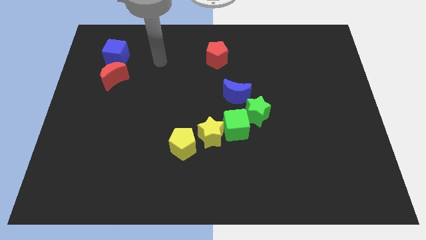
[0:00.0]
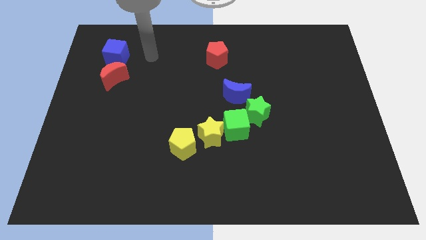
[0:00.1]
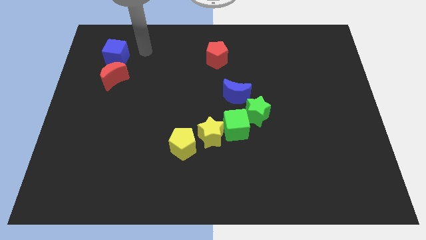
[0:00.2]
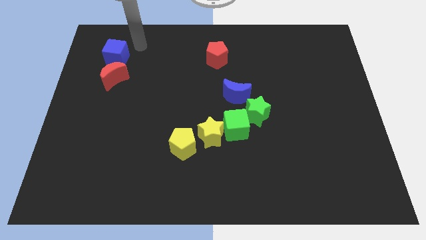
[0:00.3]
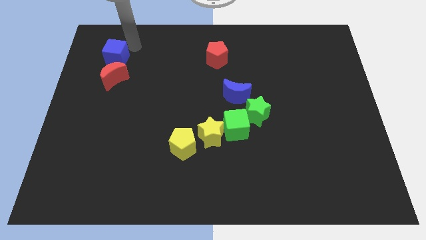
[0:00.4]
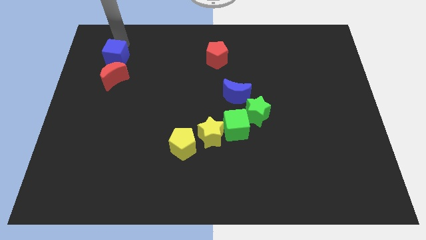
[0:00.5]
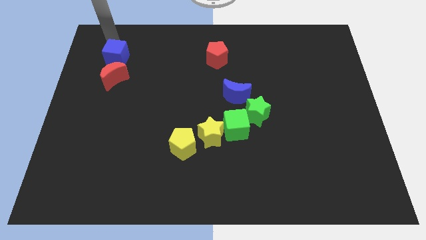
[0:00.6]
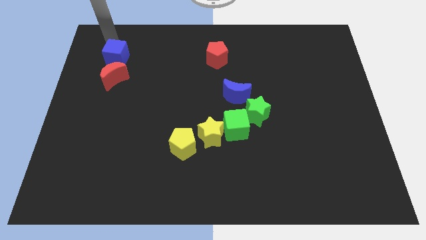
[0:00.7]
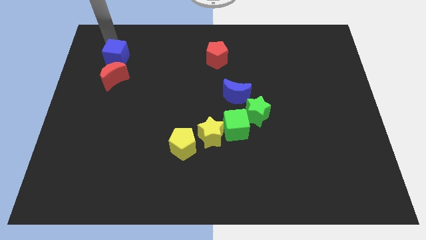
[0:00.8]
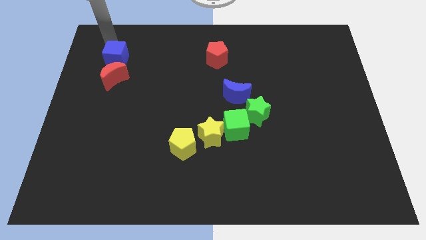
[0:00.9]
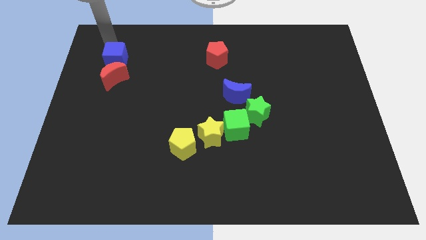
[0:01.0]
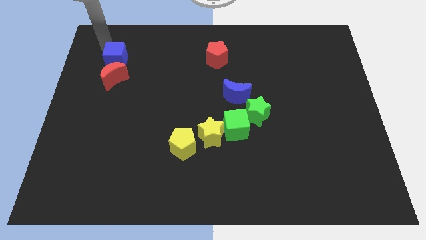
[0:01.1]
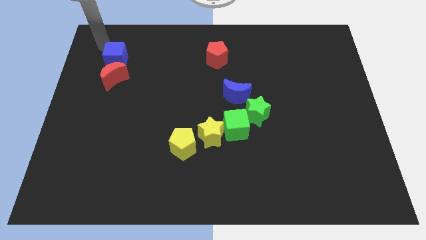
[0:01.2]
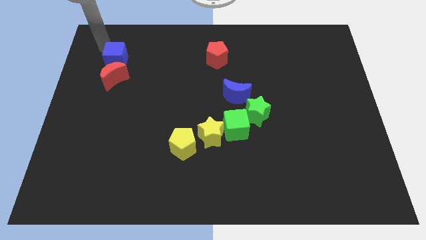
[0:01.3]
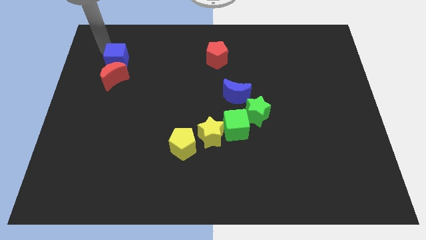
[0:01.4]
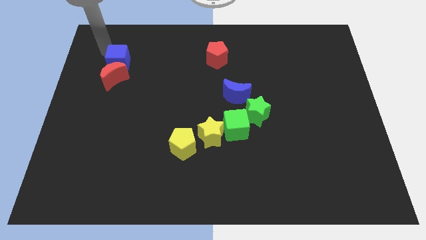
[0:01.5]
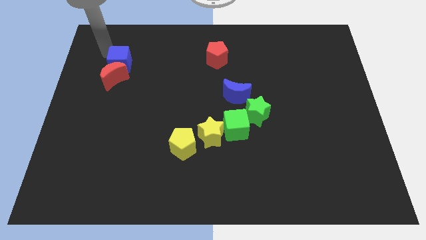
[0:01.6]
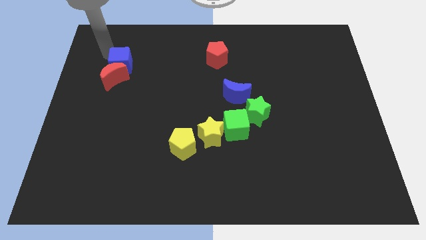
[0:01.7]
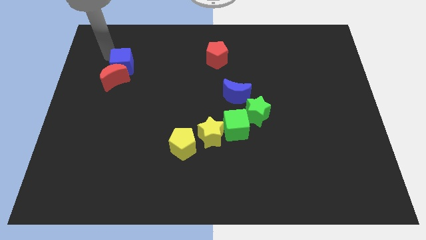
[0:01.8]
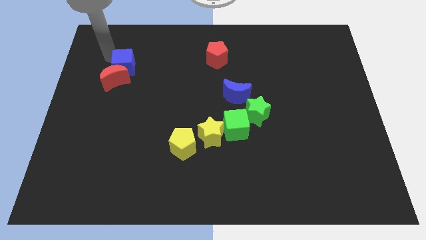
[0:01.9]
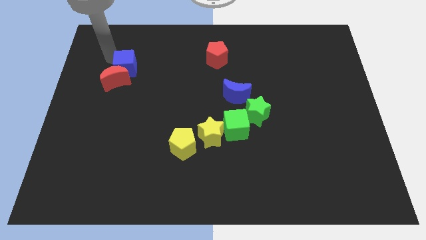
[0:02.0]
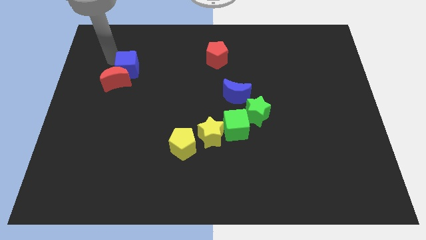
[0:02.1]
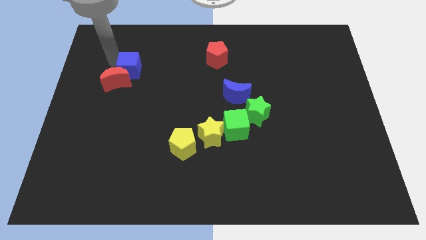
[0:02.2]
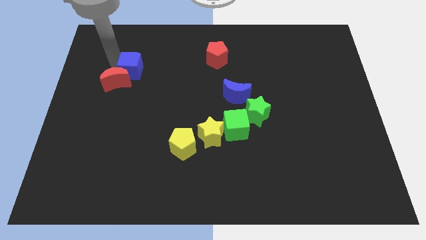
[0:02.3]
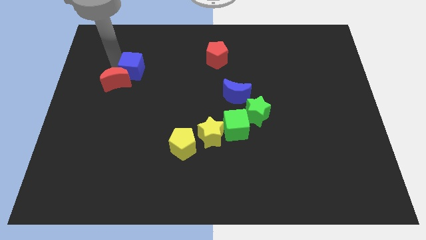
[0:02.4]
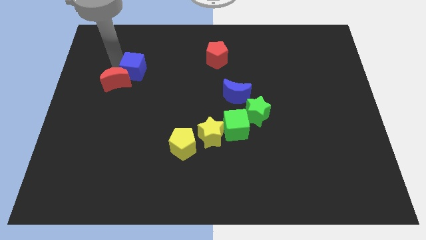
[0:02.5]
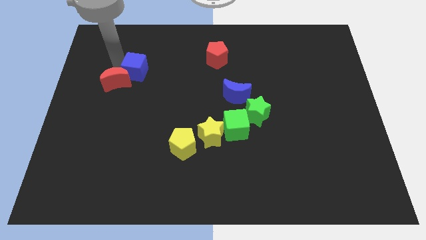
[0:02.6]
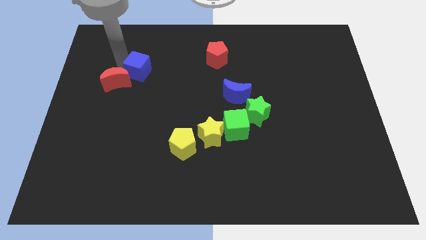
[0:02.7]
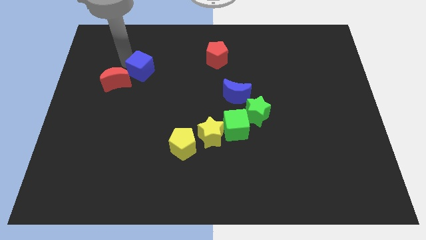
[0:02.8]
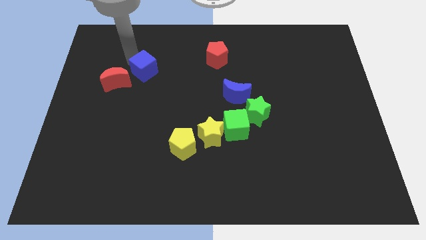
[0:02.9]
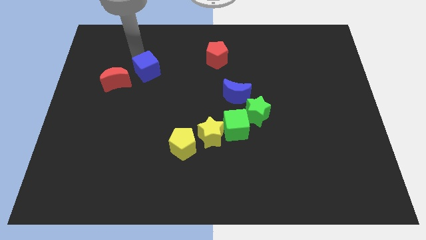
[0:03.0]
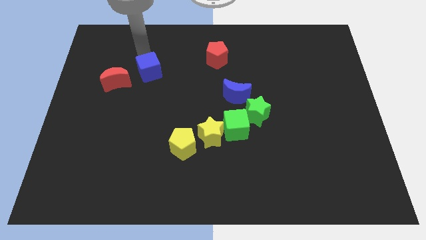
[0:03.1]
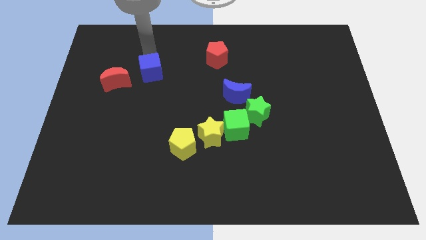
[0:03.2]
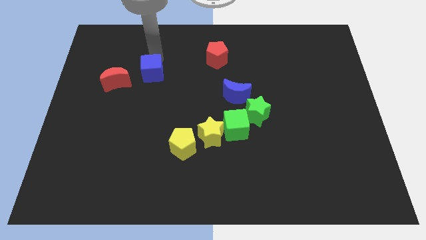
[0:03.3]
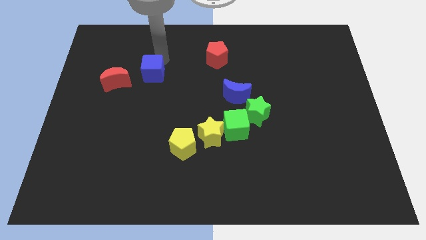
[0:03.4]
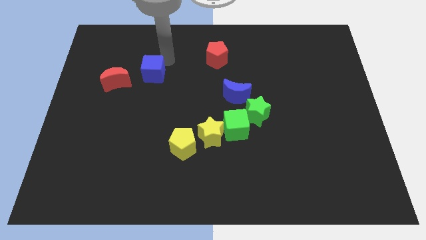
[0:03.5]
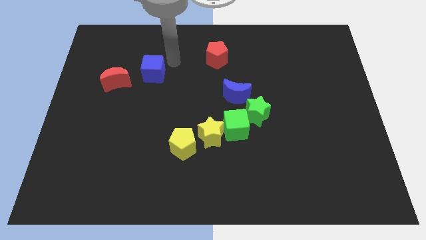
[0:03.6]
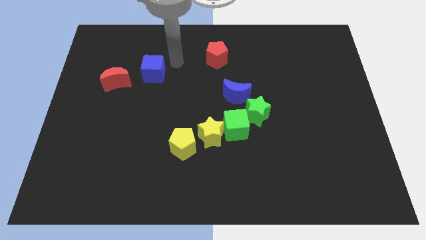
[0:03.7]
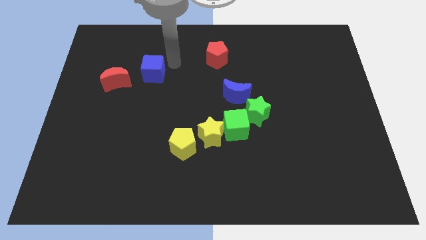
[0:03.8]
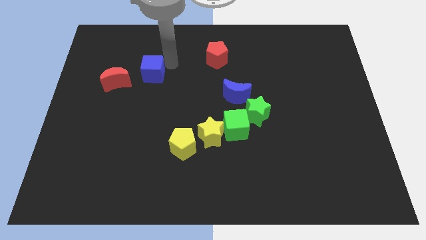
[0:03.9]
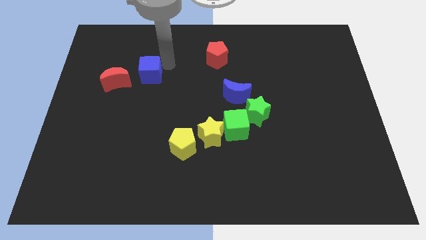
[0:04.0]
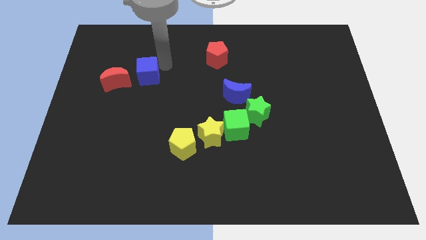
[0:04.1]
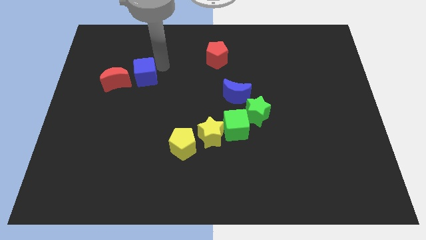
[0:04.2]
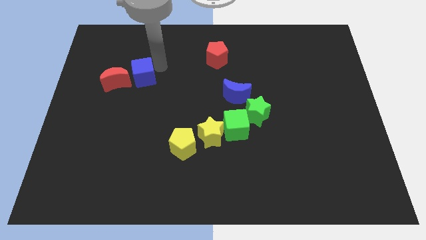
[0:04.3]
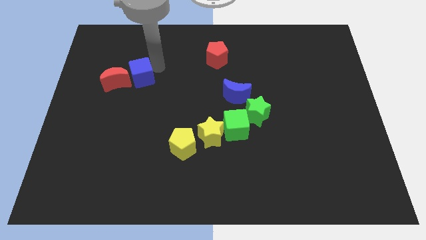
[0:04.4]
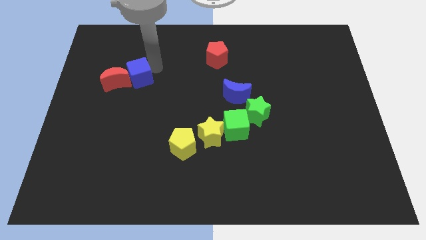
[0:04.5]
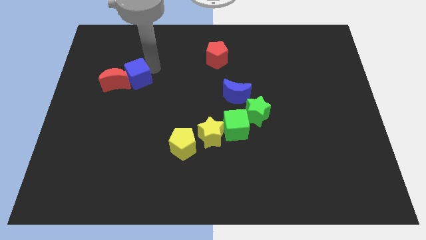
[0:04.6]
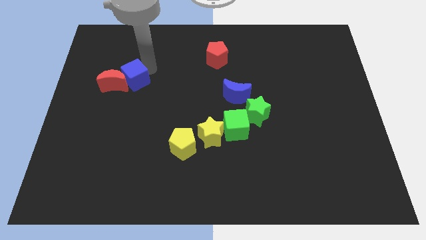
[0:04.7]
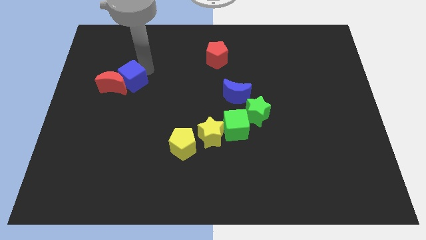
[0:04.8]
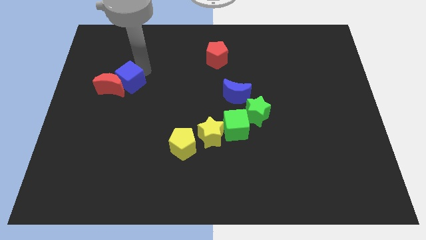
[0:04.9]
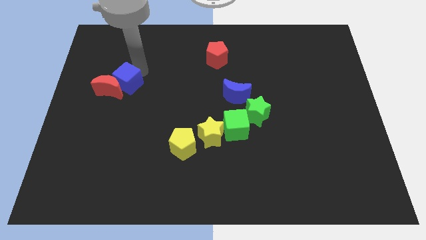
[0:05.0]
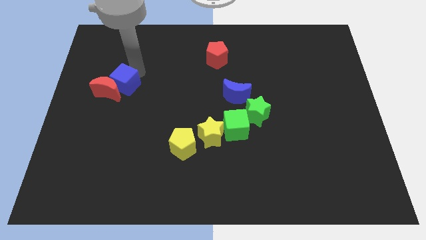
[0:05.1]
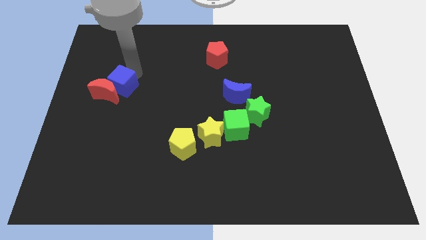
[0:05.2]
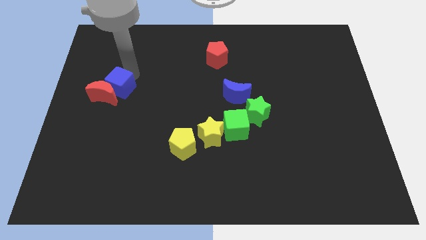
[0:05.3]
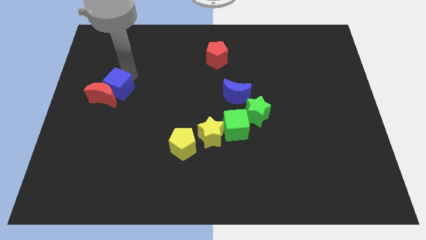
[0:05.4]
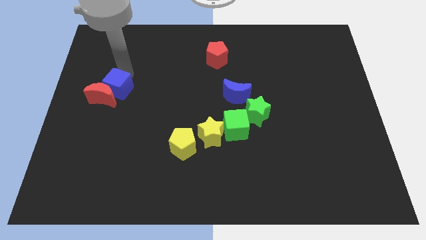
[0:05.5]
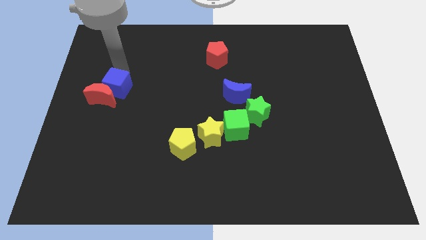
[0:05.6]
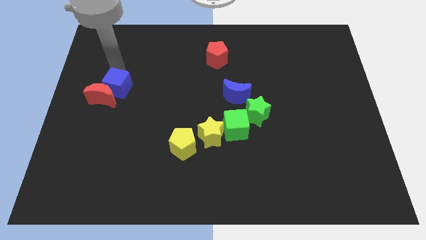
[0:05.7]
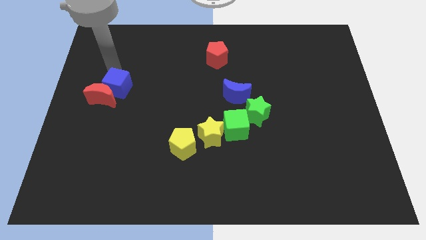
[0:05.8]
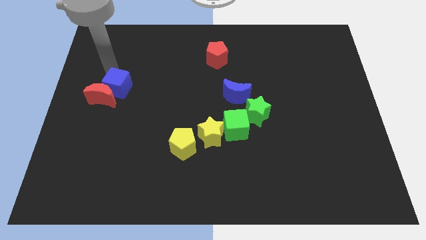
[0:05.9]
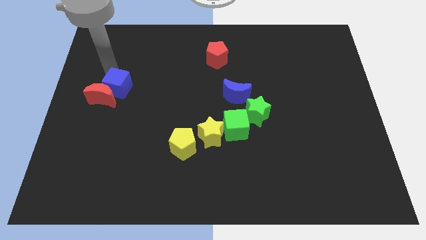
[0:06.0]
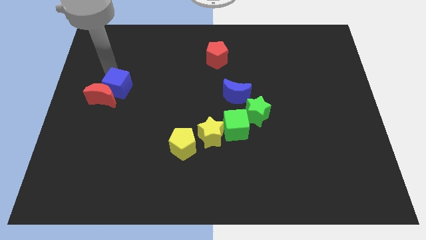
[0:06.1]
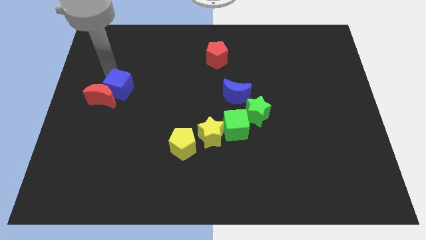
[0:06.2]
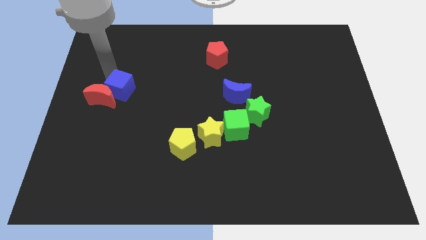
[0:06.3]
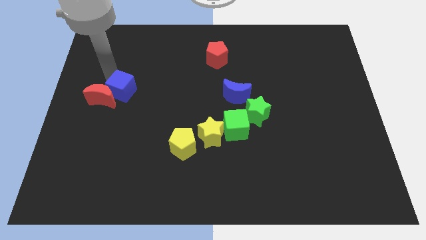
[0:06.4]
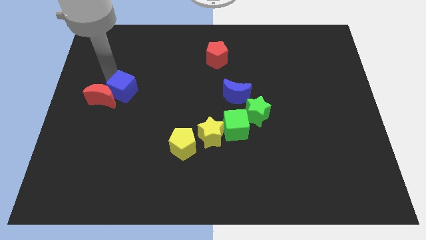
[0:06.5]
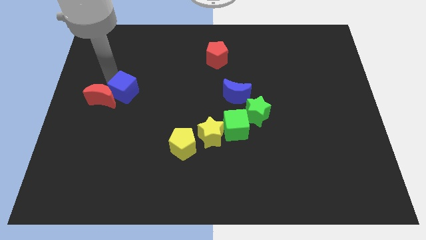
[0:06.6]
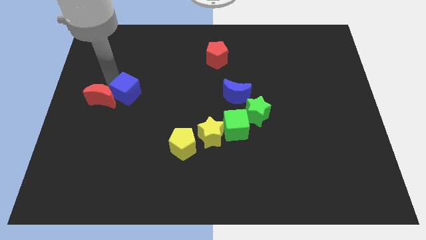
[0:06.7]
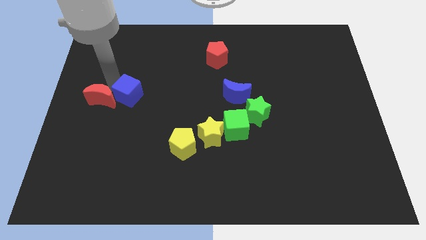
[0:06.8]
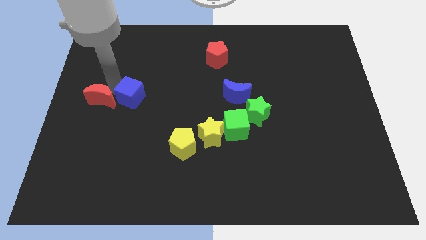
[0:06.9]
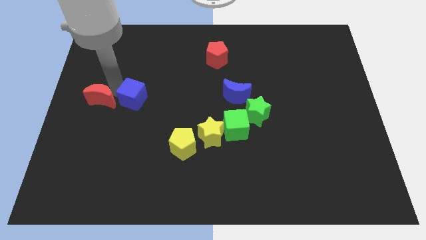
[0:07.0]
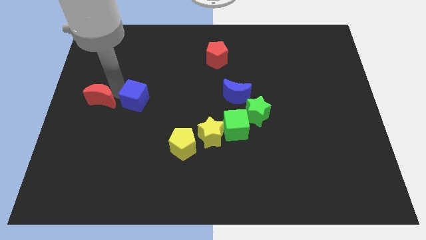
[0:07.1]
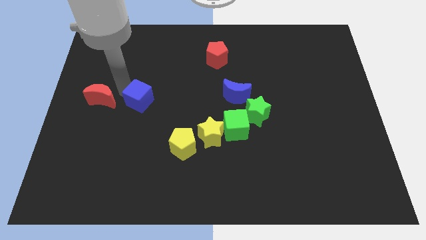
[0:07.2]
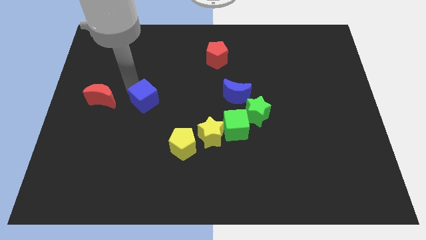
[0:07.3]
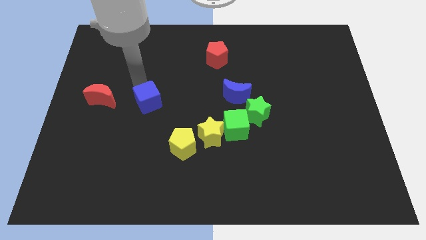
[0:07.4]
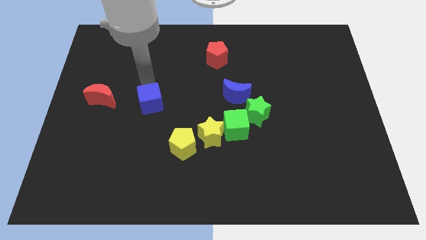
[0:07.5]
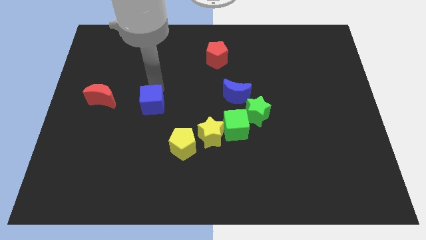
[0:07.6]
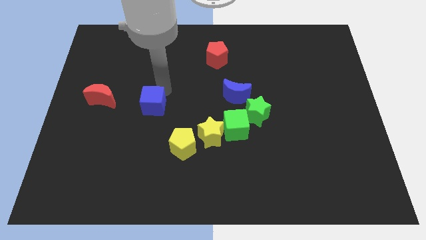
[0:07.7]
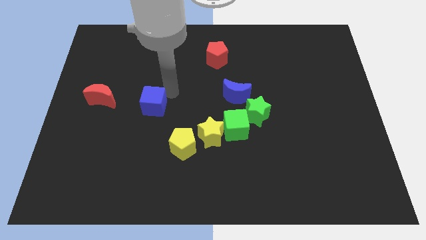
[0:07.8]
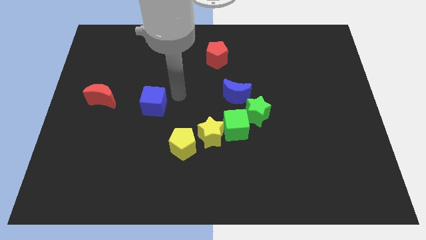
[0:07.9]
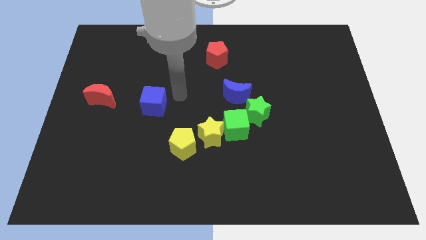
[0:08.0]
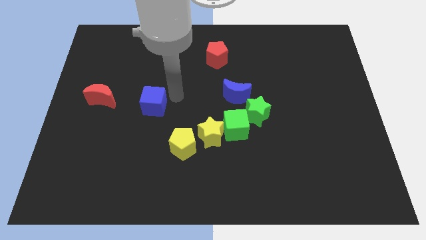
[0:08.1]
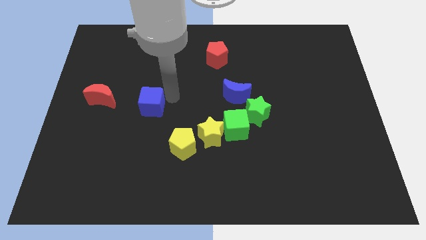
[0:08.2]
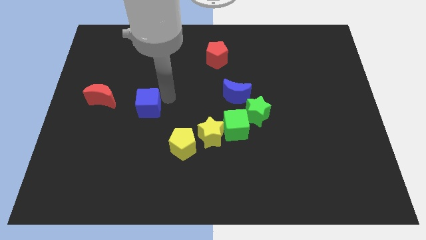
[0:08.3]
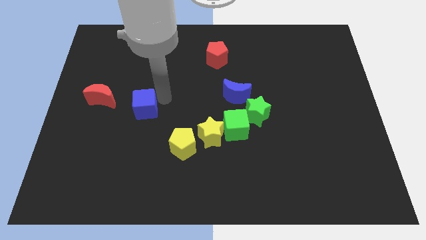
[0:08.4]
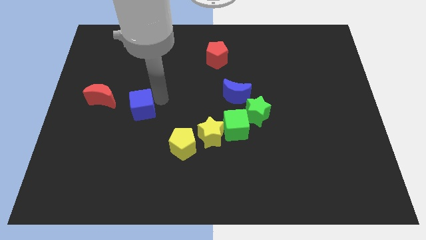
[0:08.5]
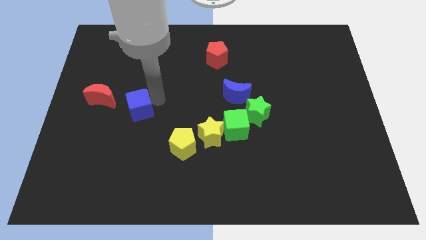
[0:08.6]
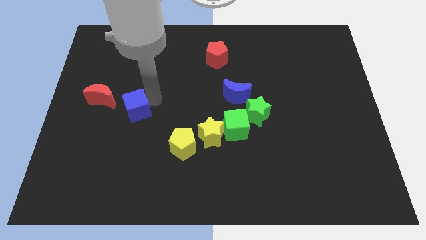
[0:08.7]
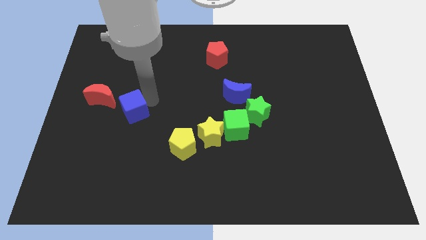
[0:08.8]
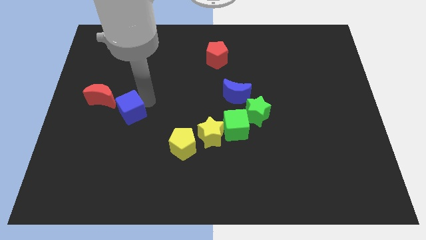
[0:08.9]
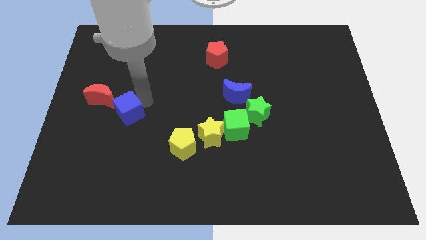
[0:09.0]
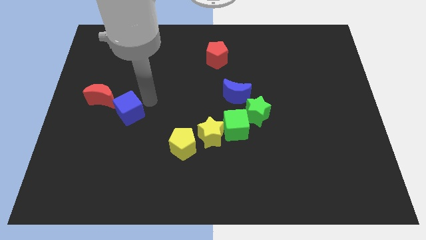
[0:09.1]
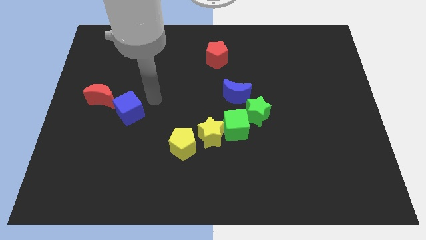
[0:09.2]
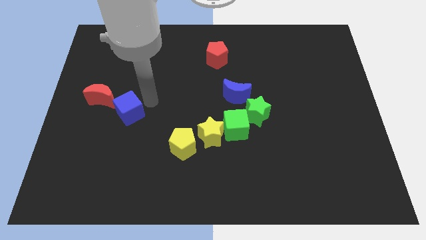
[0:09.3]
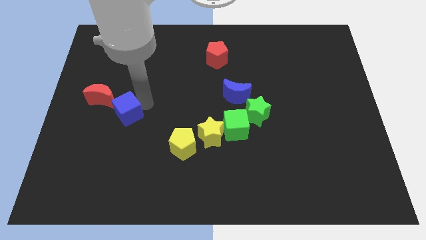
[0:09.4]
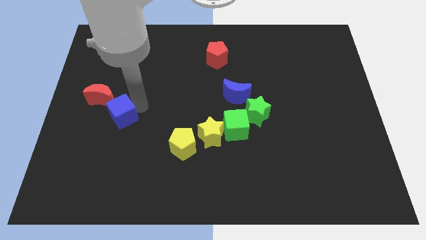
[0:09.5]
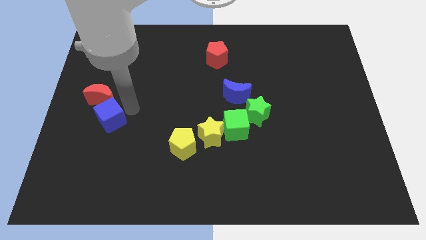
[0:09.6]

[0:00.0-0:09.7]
slide the blue cube downwards
